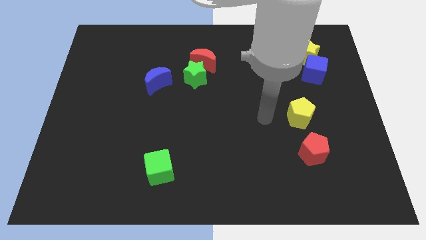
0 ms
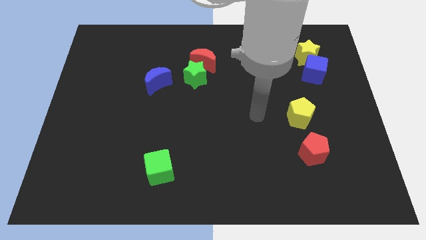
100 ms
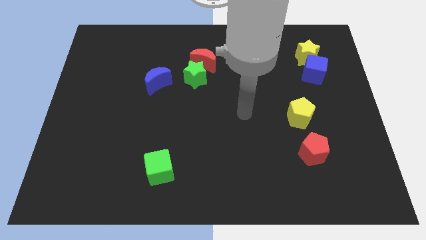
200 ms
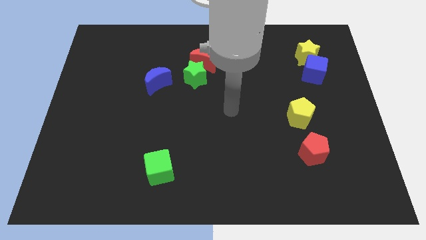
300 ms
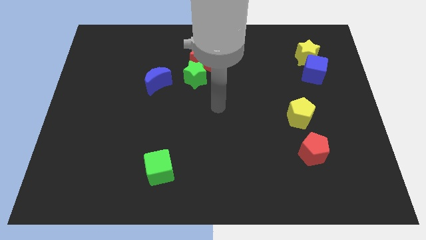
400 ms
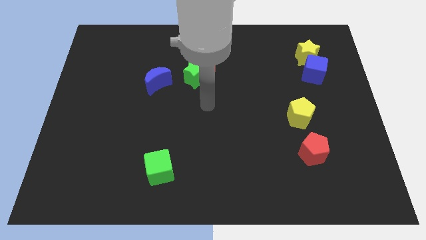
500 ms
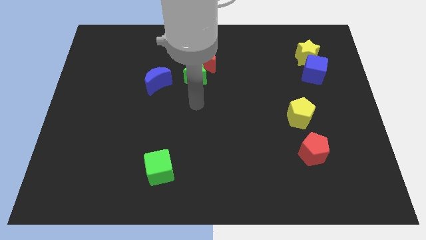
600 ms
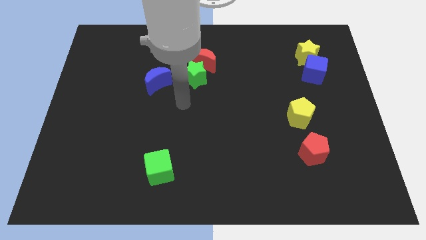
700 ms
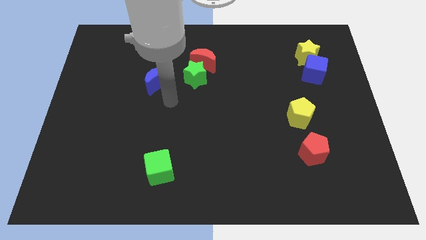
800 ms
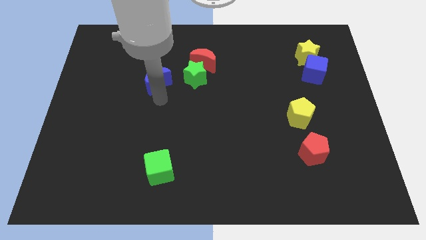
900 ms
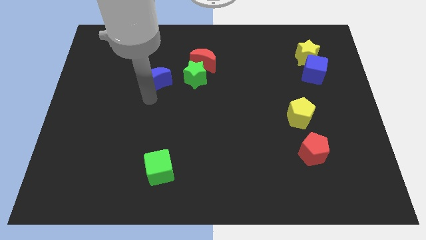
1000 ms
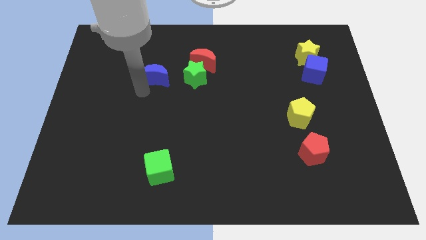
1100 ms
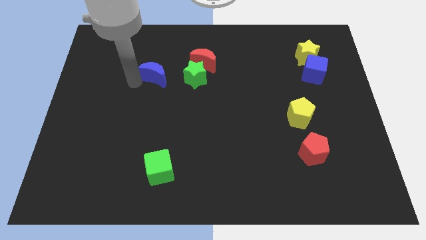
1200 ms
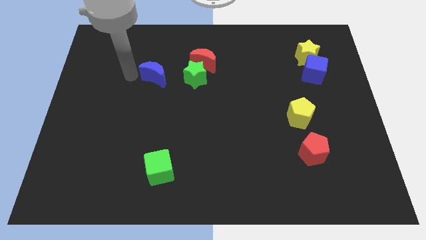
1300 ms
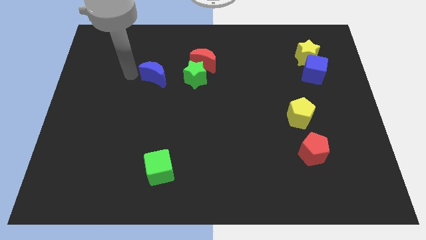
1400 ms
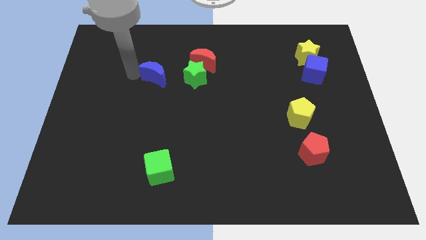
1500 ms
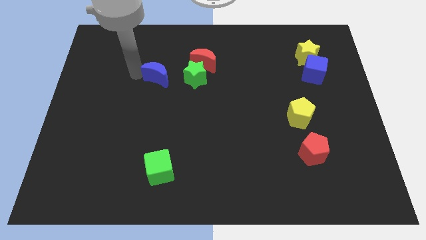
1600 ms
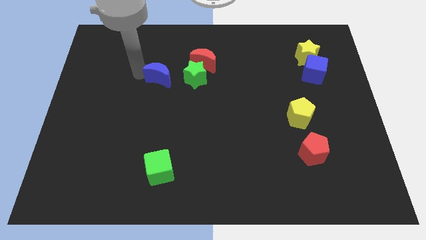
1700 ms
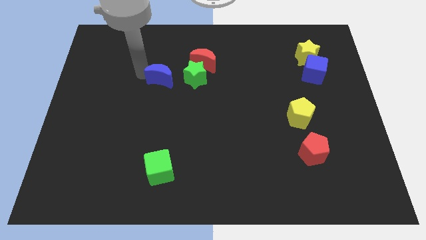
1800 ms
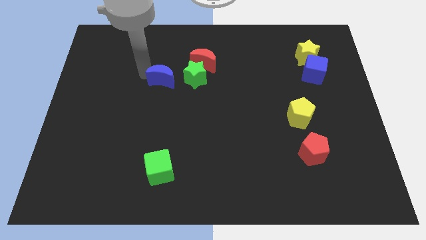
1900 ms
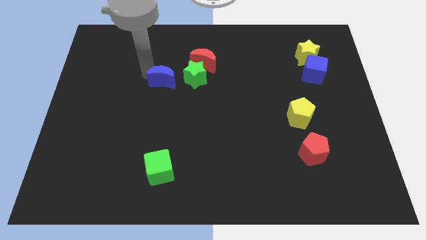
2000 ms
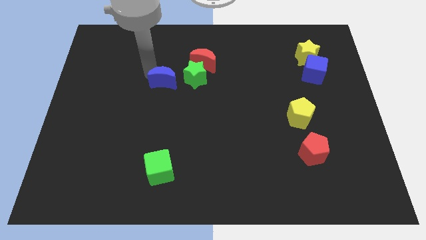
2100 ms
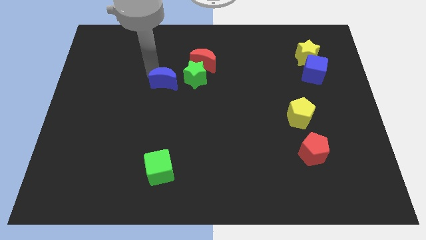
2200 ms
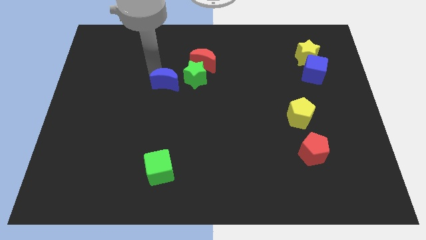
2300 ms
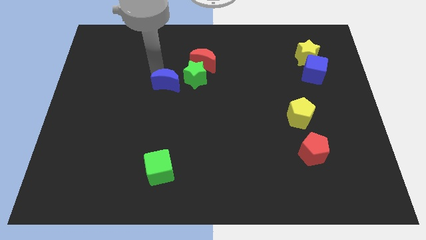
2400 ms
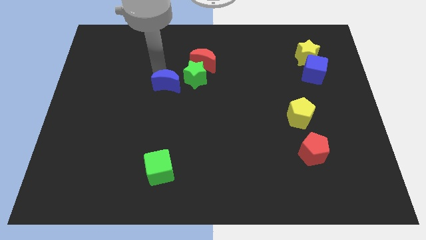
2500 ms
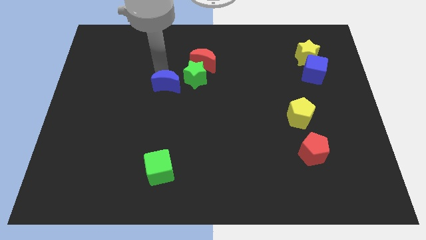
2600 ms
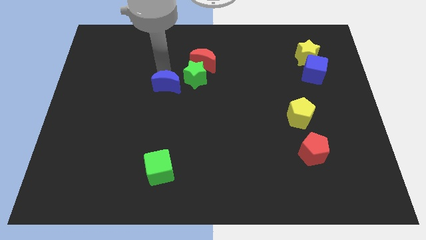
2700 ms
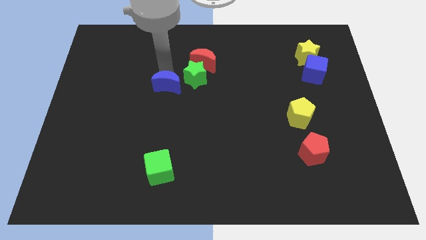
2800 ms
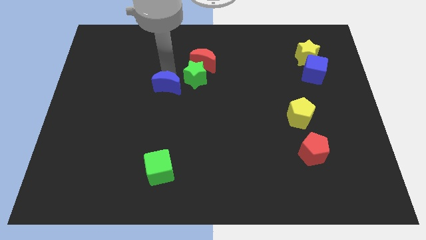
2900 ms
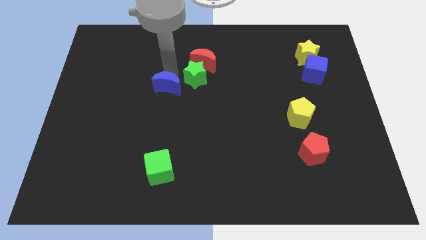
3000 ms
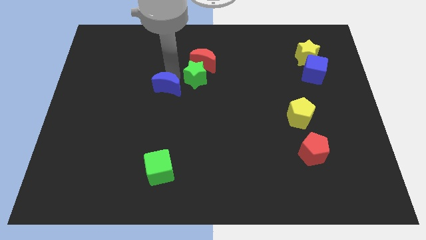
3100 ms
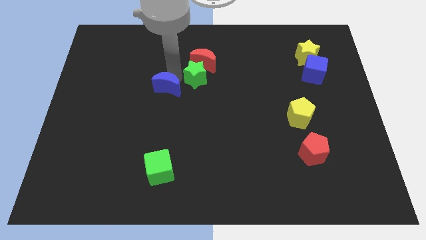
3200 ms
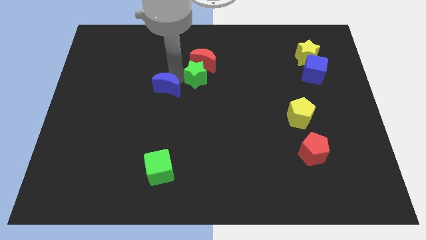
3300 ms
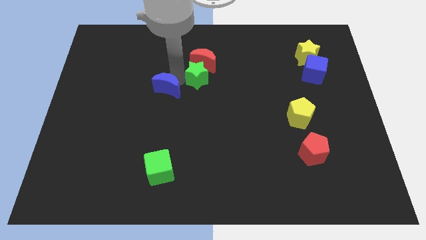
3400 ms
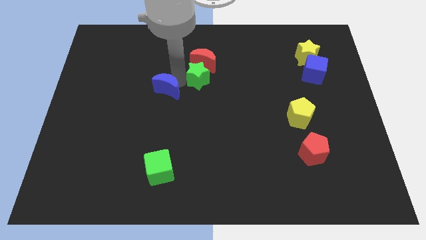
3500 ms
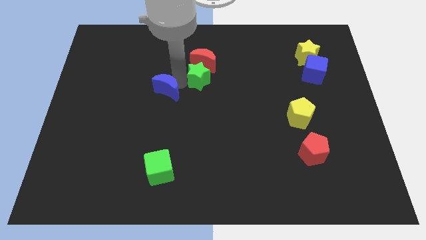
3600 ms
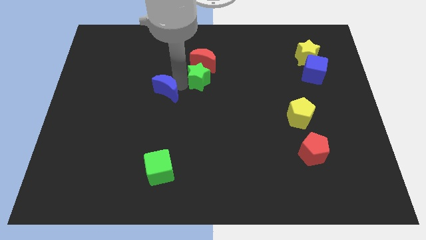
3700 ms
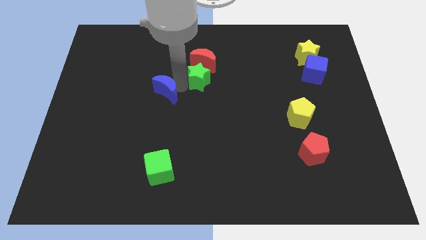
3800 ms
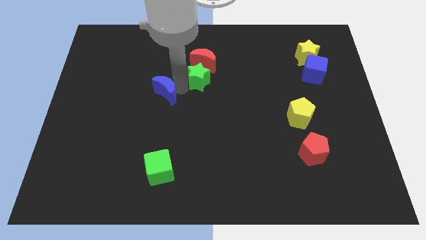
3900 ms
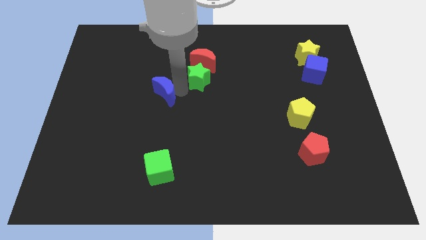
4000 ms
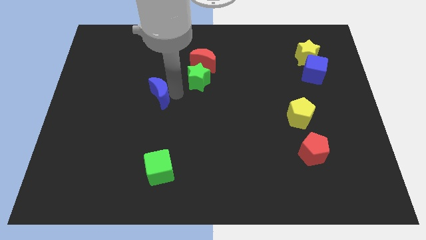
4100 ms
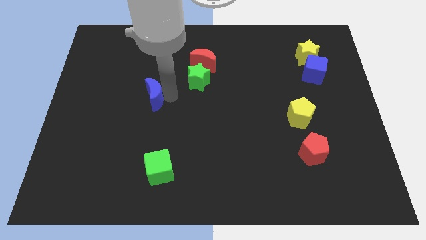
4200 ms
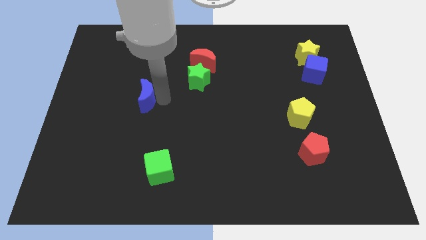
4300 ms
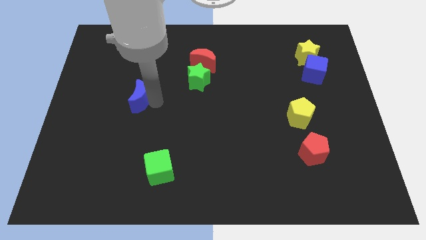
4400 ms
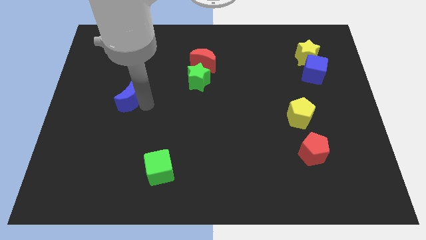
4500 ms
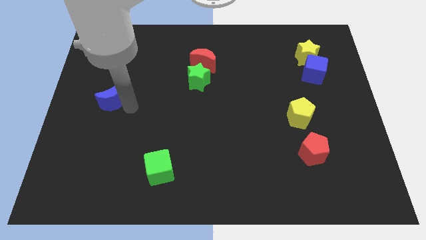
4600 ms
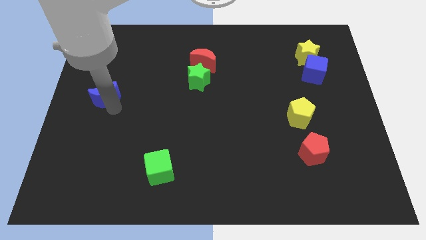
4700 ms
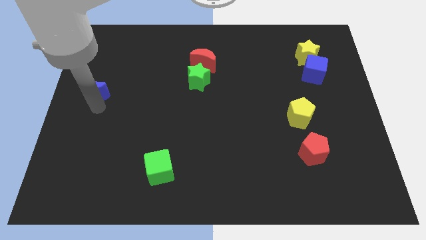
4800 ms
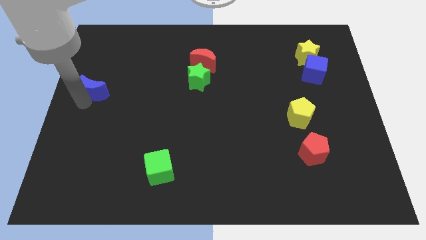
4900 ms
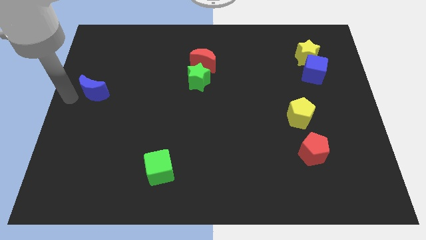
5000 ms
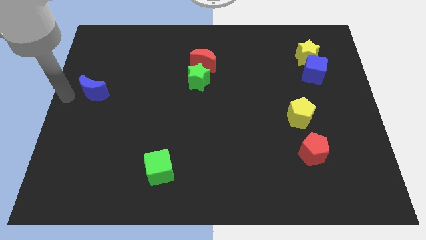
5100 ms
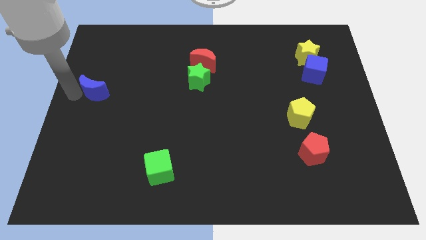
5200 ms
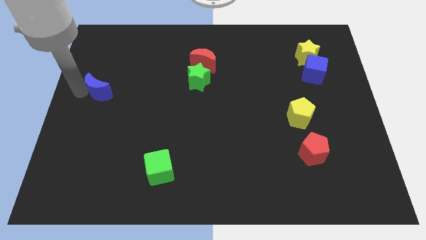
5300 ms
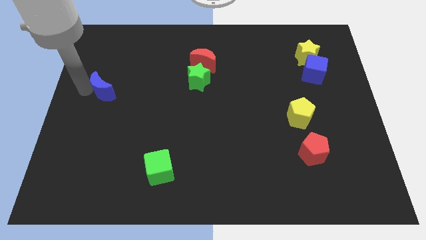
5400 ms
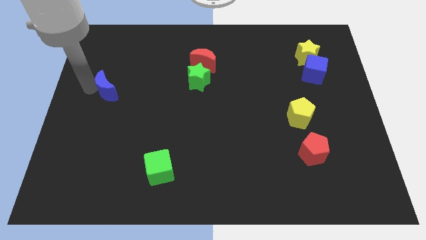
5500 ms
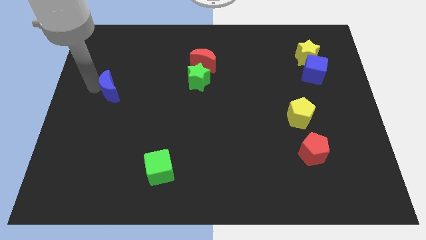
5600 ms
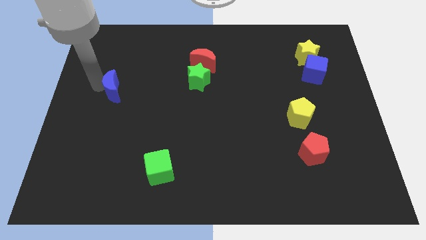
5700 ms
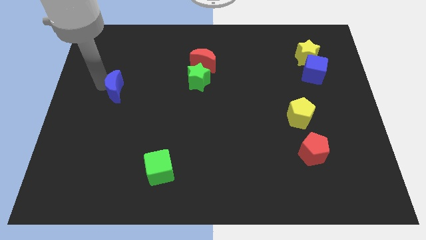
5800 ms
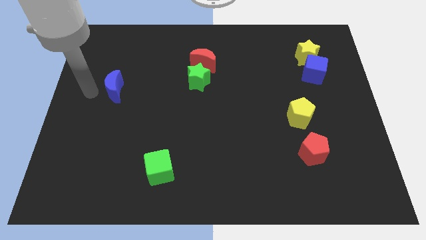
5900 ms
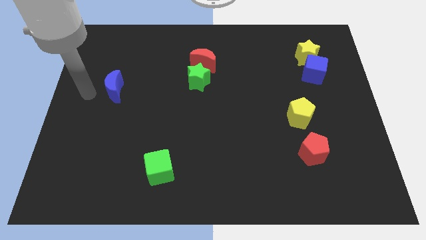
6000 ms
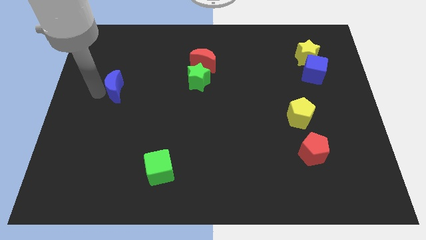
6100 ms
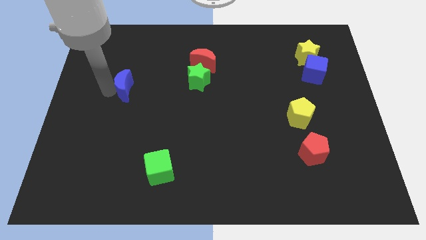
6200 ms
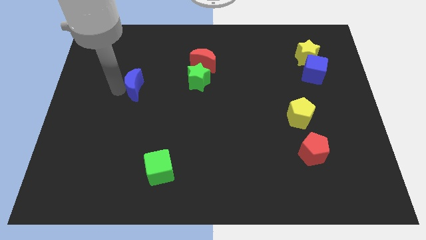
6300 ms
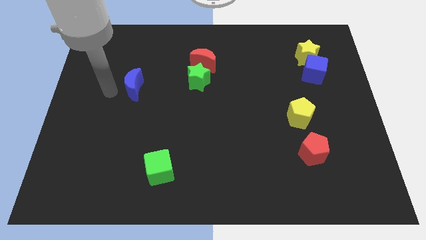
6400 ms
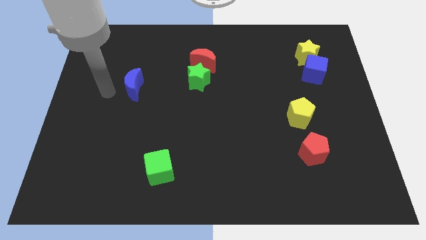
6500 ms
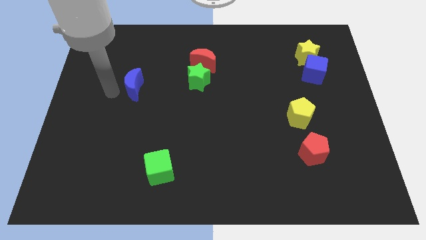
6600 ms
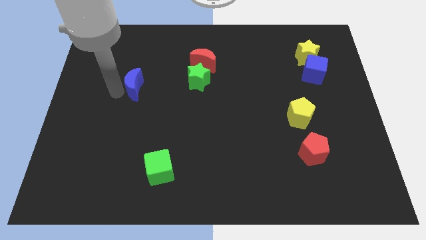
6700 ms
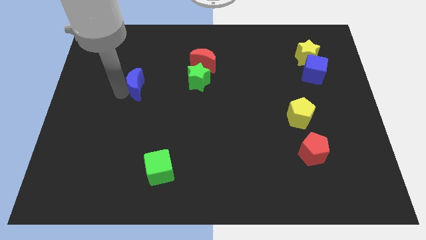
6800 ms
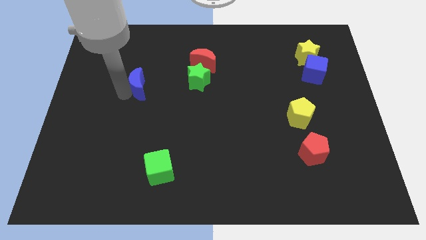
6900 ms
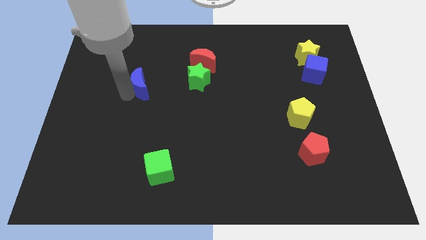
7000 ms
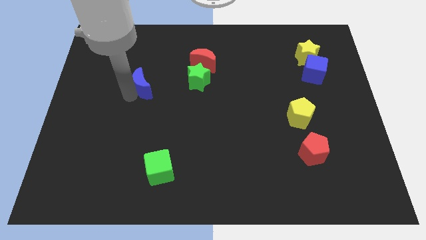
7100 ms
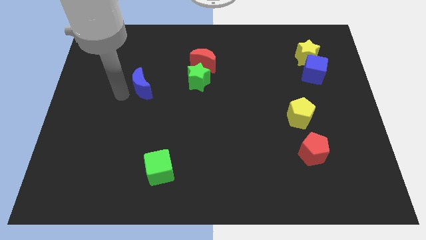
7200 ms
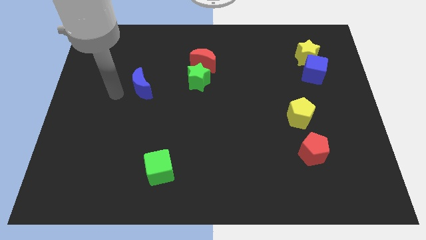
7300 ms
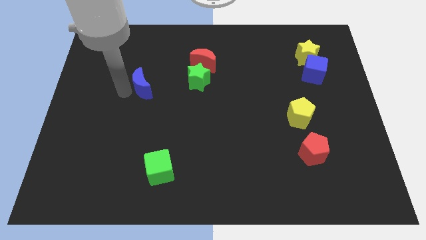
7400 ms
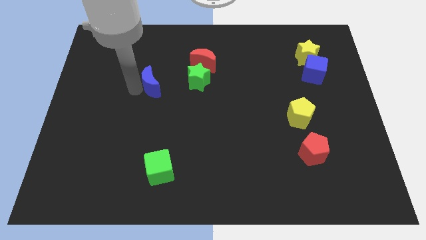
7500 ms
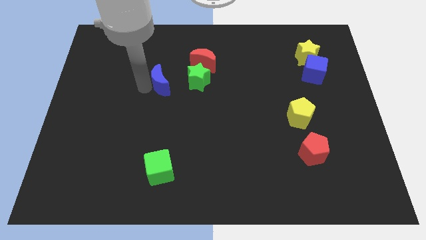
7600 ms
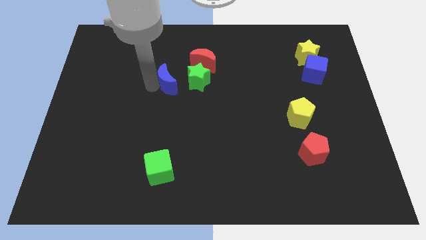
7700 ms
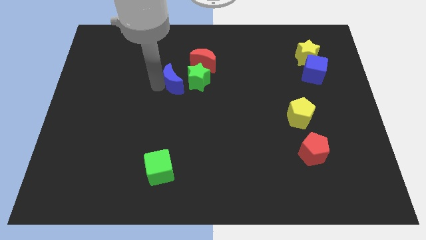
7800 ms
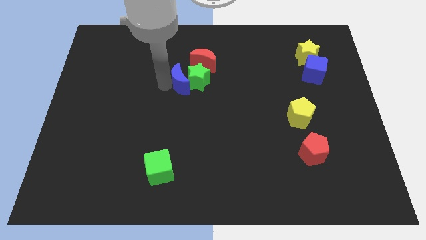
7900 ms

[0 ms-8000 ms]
put the blue moon to the green star
